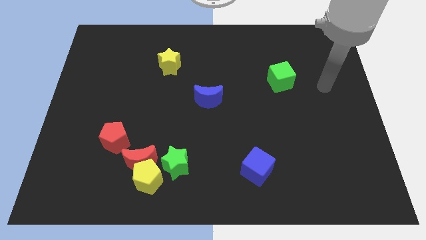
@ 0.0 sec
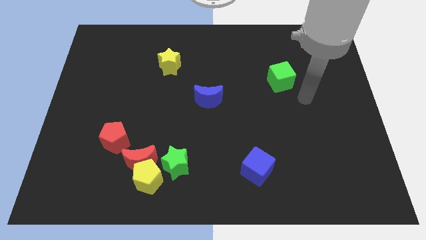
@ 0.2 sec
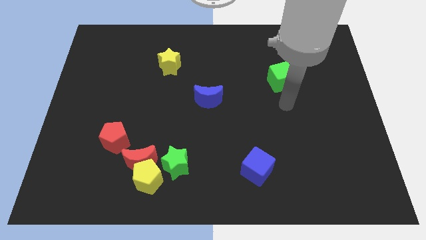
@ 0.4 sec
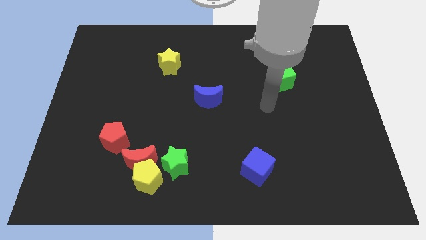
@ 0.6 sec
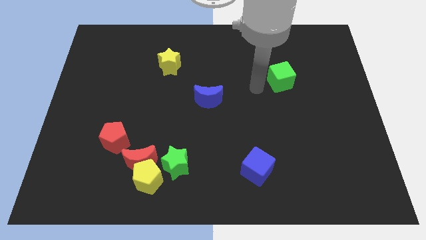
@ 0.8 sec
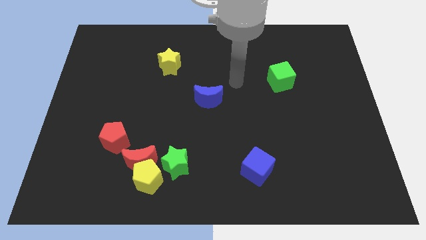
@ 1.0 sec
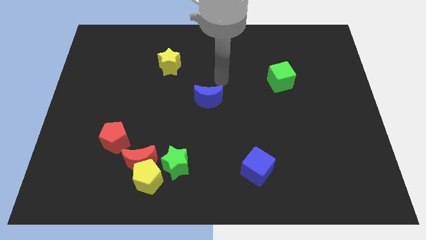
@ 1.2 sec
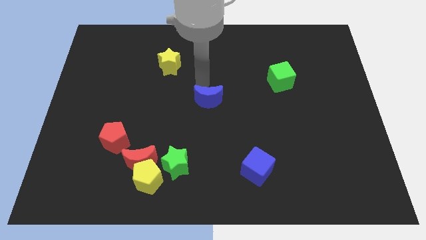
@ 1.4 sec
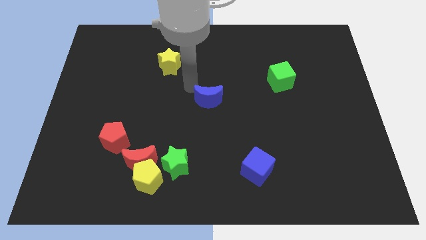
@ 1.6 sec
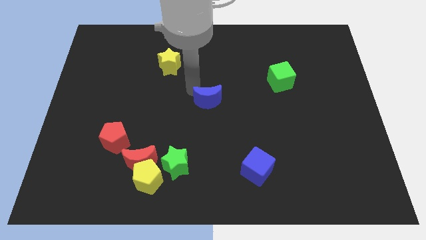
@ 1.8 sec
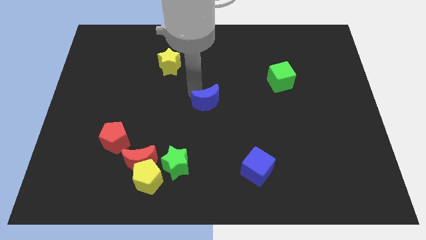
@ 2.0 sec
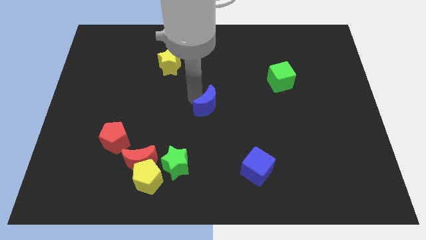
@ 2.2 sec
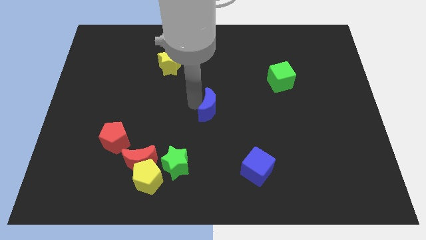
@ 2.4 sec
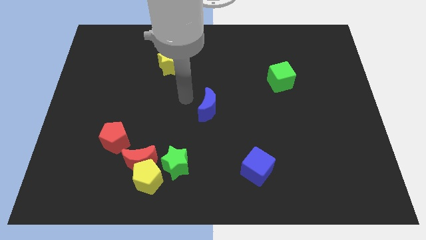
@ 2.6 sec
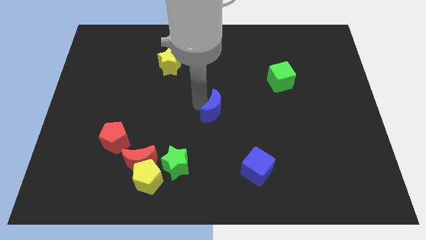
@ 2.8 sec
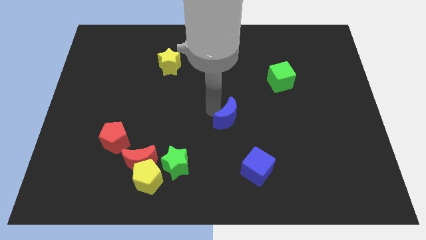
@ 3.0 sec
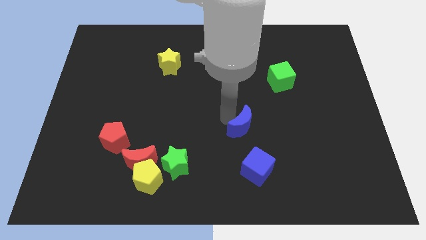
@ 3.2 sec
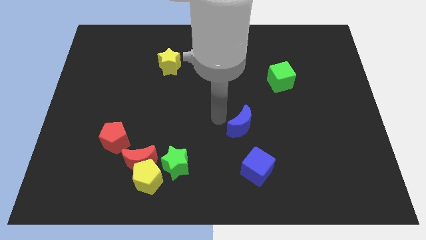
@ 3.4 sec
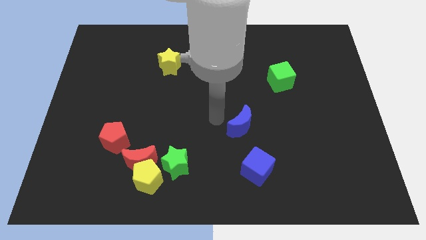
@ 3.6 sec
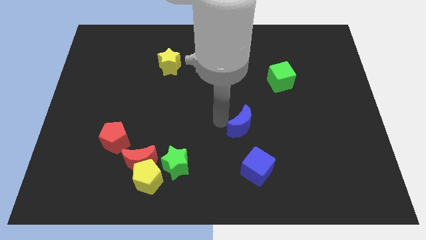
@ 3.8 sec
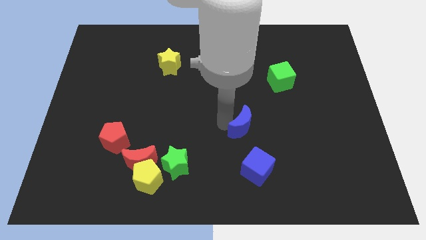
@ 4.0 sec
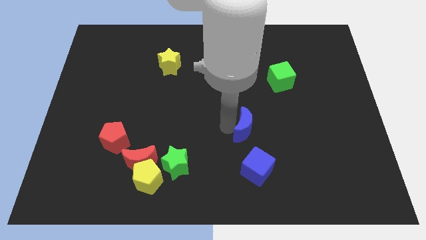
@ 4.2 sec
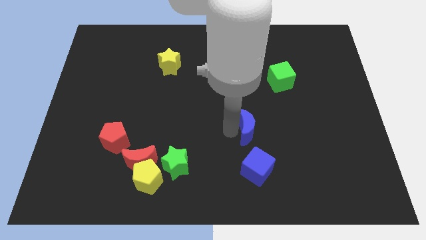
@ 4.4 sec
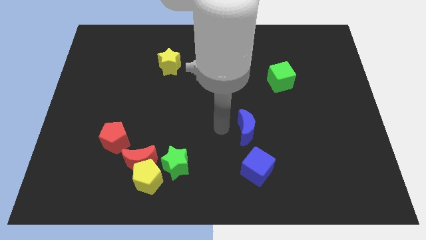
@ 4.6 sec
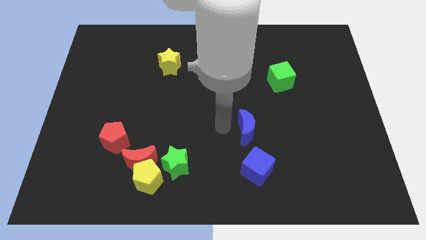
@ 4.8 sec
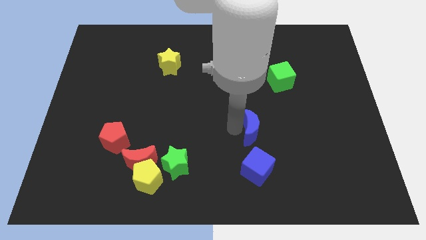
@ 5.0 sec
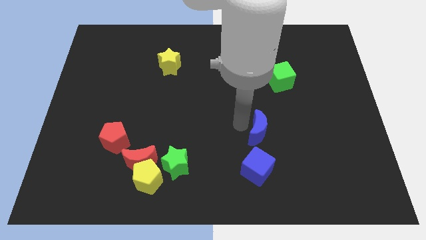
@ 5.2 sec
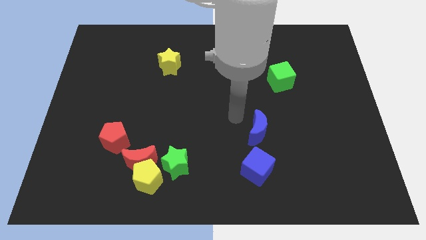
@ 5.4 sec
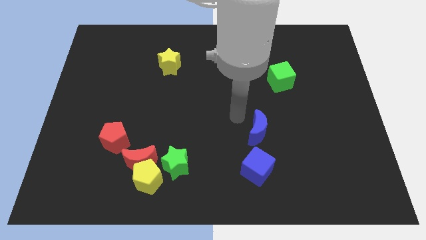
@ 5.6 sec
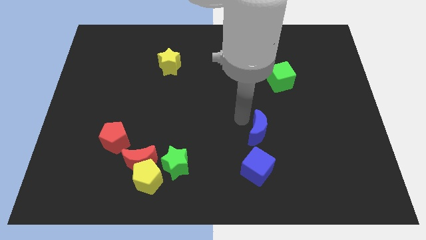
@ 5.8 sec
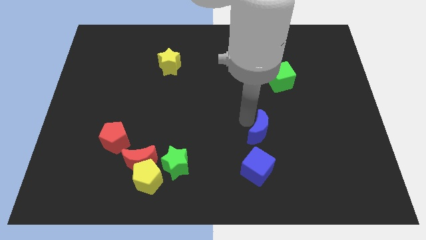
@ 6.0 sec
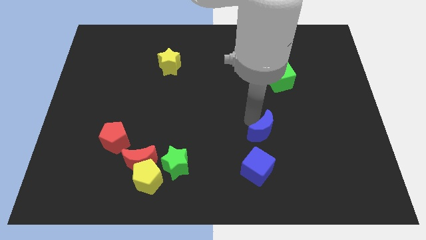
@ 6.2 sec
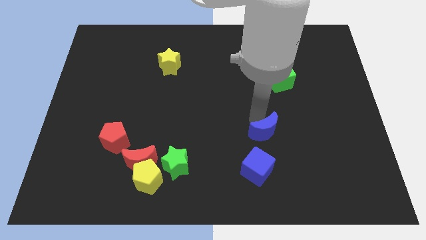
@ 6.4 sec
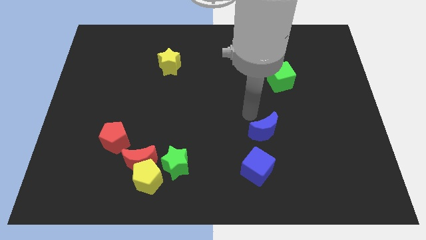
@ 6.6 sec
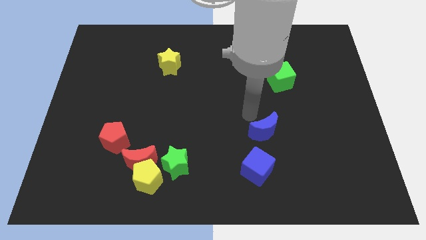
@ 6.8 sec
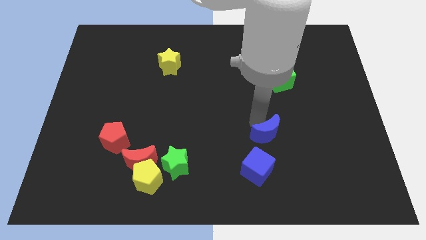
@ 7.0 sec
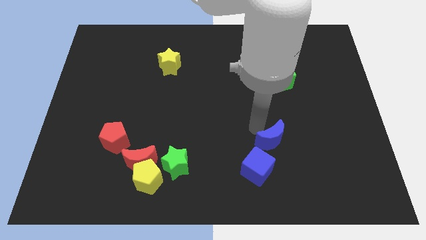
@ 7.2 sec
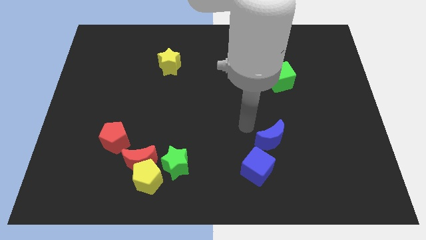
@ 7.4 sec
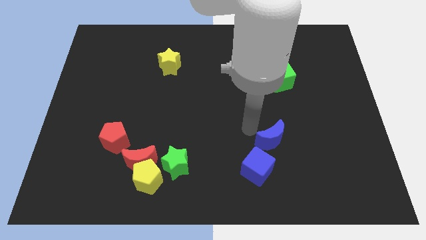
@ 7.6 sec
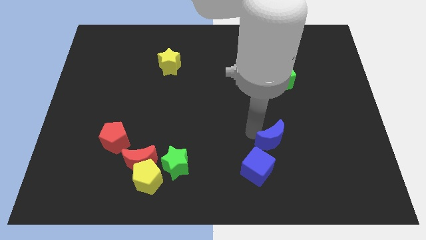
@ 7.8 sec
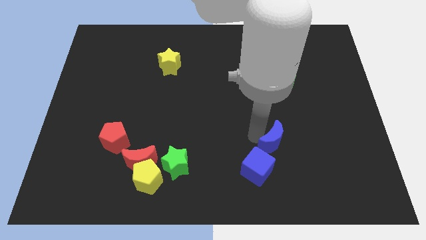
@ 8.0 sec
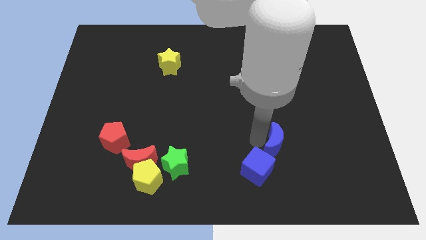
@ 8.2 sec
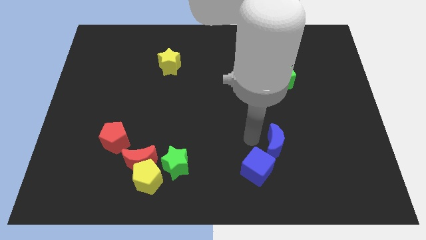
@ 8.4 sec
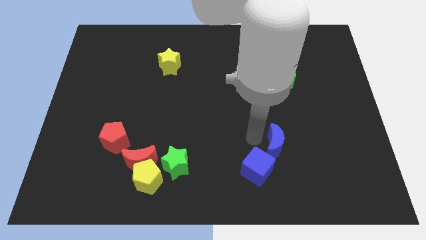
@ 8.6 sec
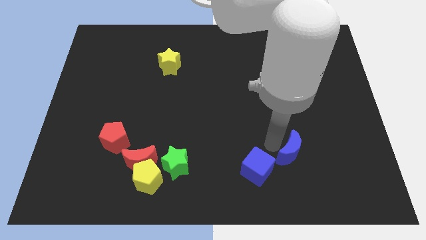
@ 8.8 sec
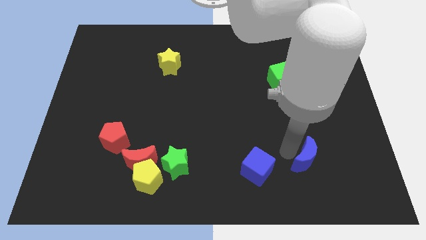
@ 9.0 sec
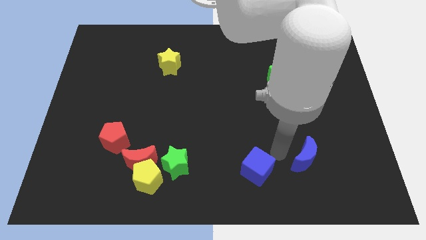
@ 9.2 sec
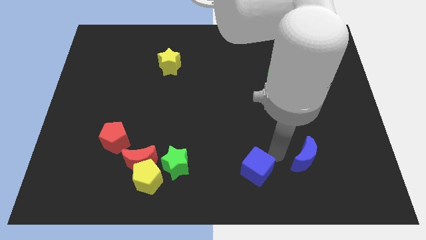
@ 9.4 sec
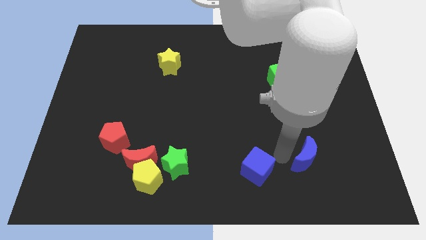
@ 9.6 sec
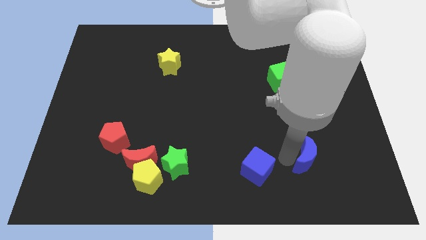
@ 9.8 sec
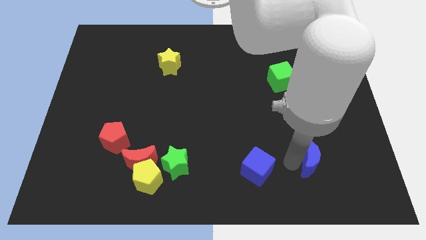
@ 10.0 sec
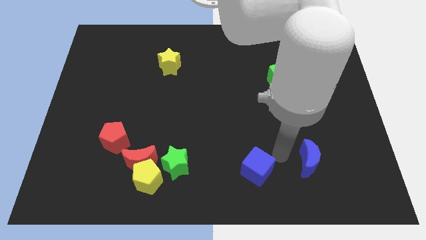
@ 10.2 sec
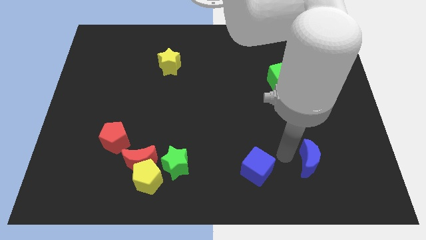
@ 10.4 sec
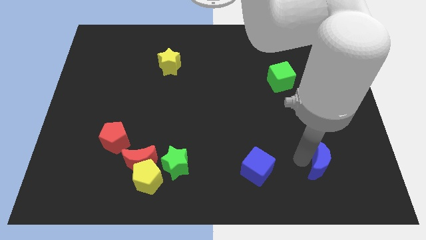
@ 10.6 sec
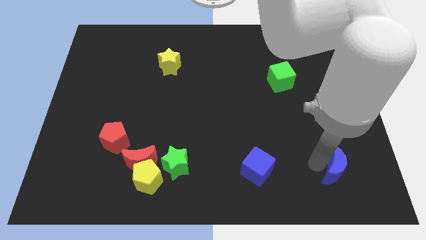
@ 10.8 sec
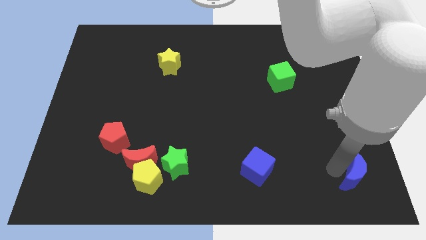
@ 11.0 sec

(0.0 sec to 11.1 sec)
put the blue moon to the bottom right of the board

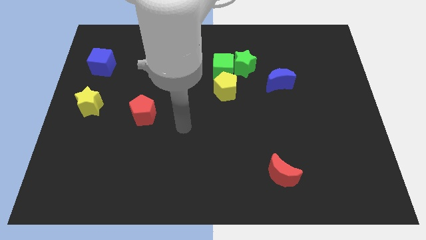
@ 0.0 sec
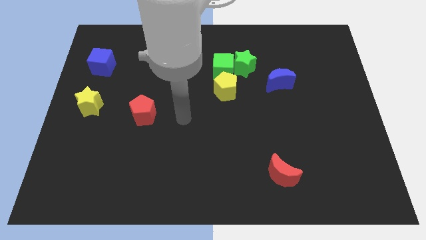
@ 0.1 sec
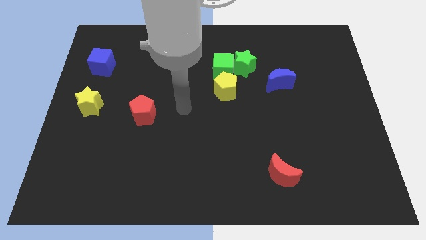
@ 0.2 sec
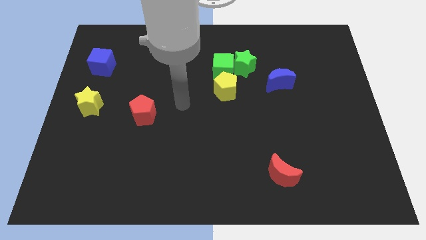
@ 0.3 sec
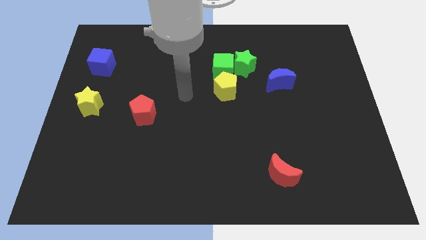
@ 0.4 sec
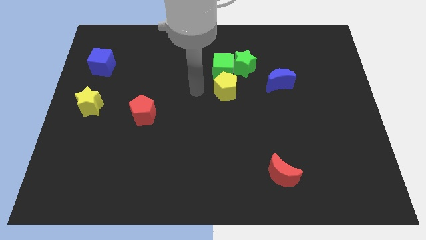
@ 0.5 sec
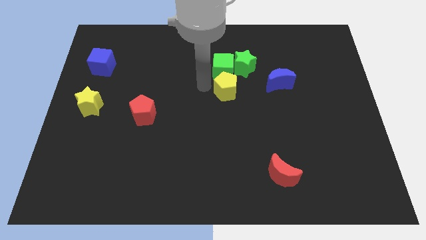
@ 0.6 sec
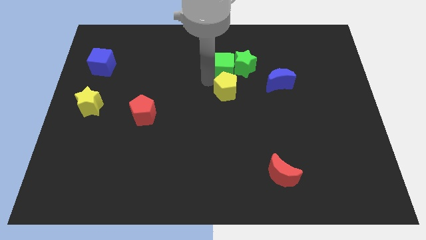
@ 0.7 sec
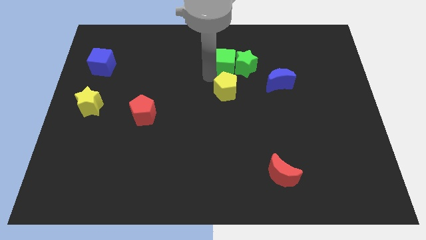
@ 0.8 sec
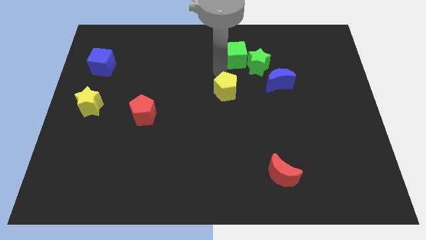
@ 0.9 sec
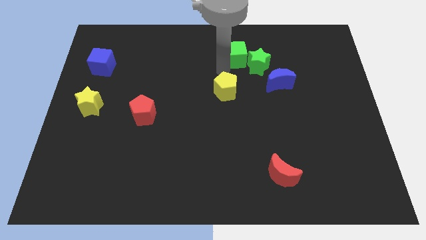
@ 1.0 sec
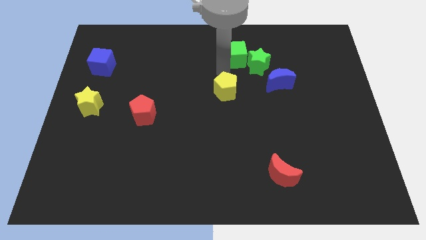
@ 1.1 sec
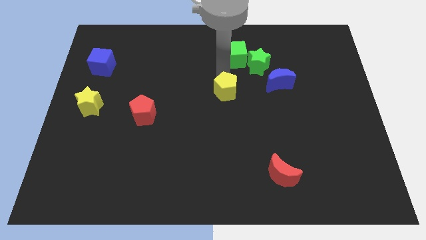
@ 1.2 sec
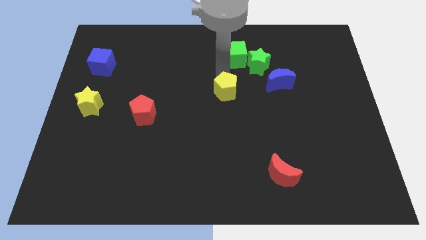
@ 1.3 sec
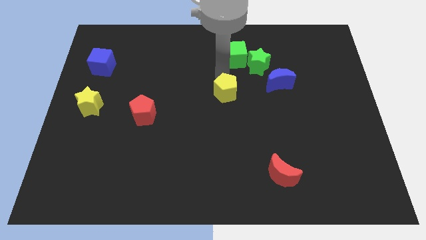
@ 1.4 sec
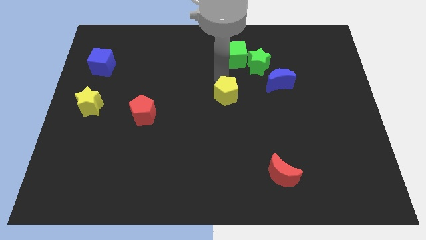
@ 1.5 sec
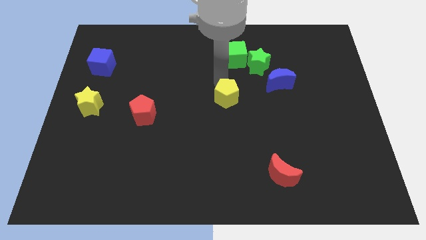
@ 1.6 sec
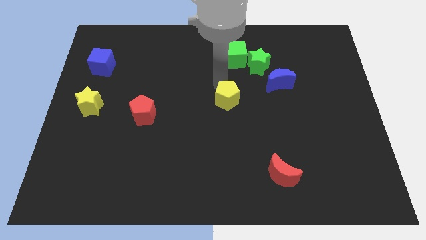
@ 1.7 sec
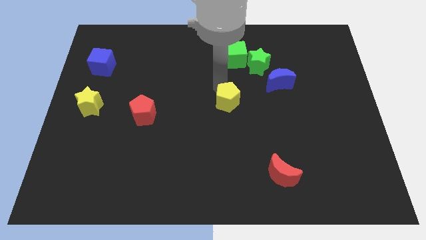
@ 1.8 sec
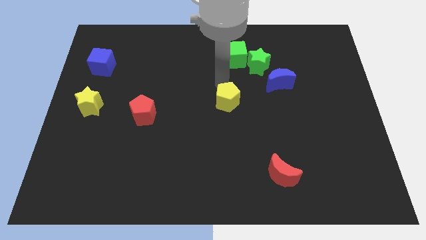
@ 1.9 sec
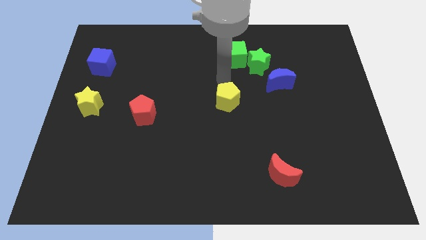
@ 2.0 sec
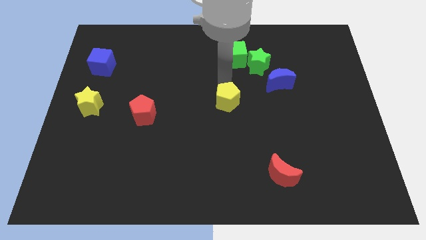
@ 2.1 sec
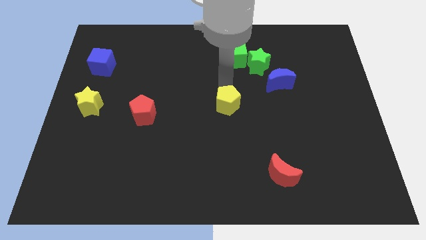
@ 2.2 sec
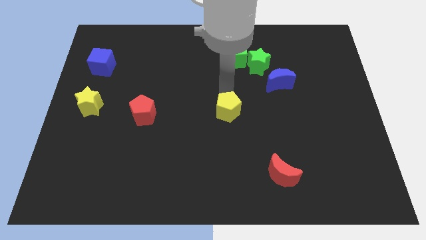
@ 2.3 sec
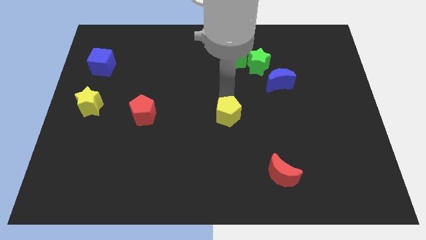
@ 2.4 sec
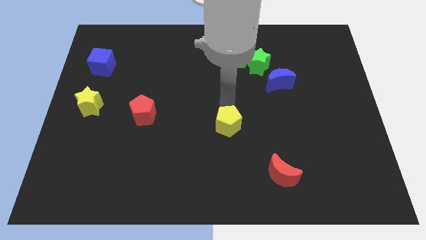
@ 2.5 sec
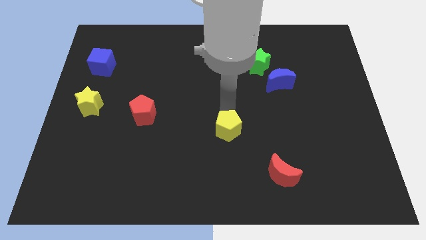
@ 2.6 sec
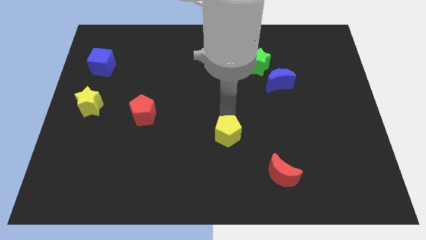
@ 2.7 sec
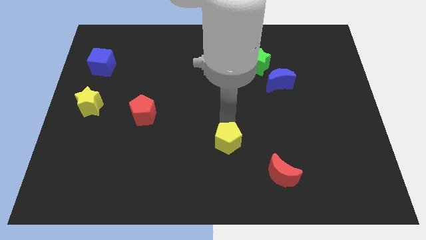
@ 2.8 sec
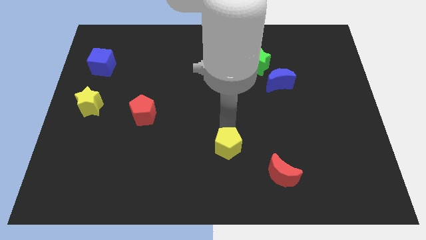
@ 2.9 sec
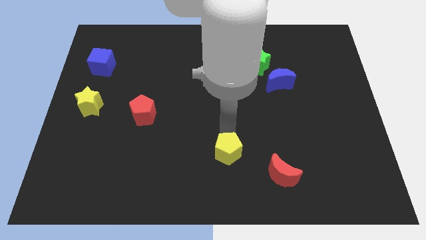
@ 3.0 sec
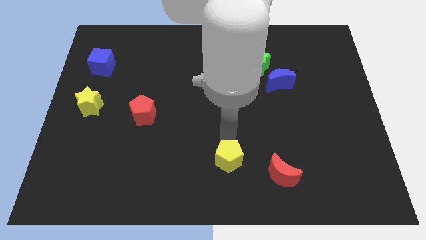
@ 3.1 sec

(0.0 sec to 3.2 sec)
slide the yellow pentagon to the bottom
